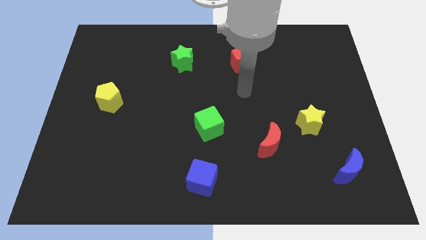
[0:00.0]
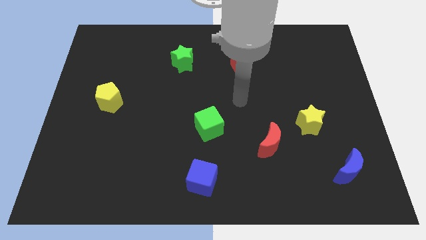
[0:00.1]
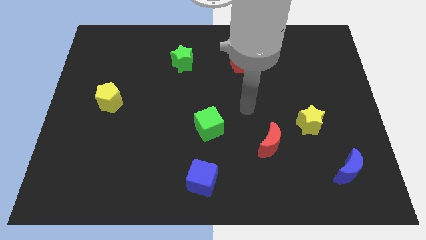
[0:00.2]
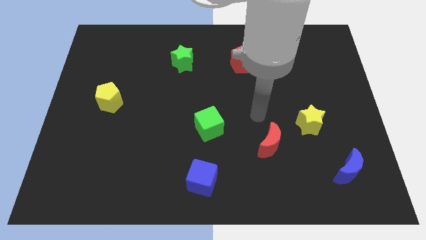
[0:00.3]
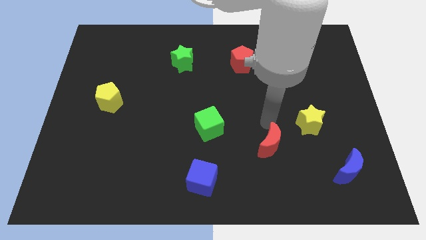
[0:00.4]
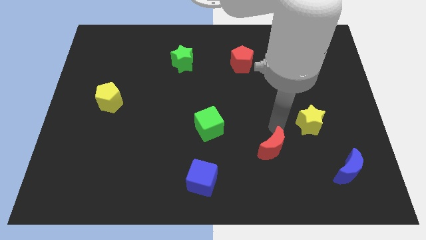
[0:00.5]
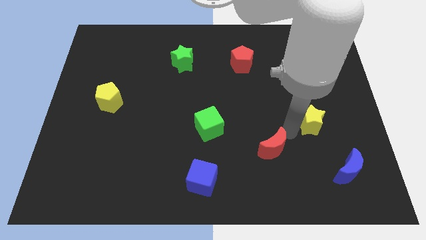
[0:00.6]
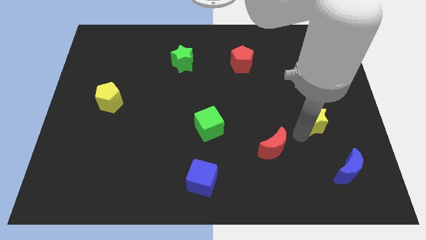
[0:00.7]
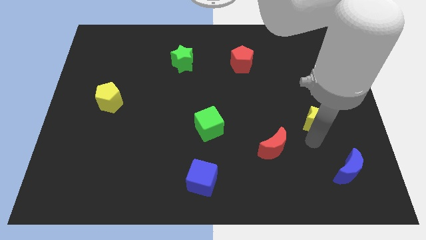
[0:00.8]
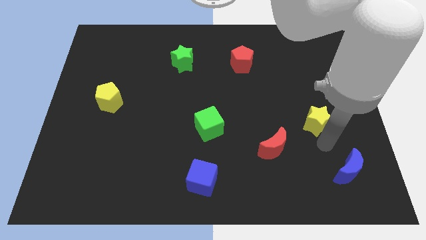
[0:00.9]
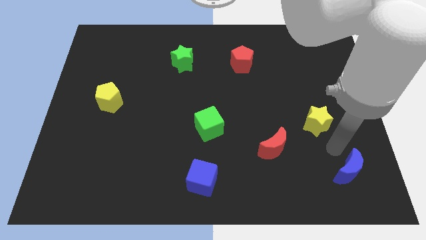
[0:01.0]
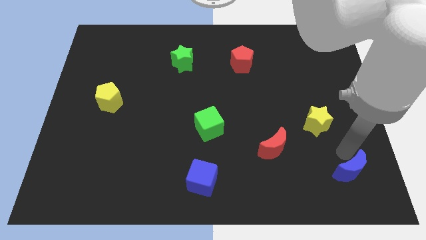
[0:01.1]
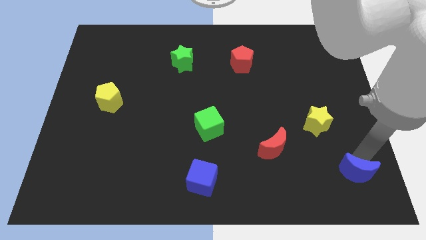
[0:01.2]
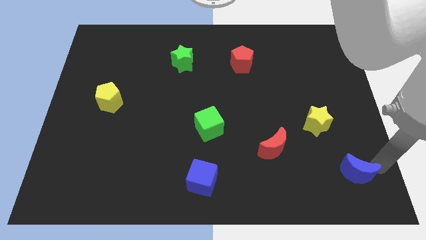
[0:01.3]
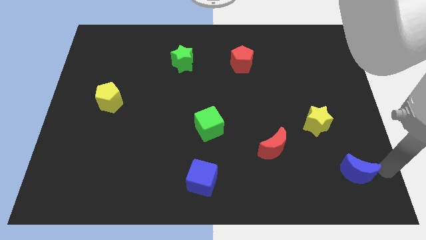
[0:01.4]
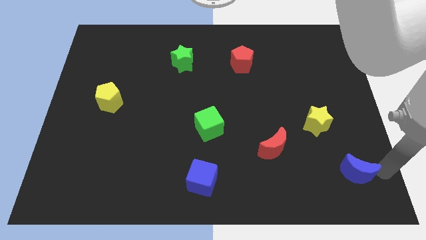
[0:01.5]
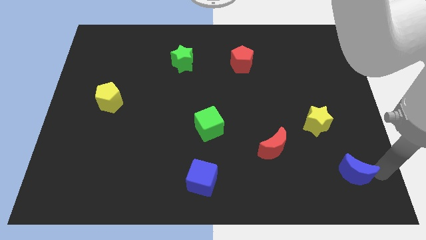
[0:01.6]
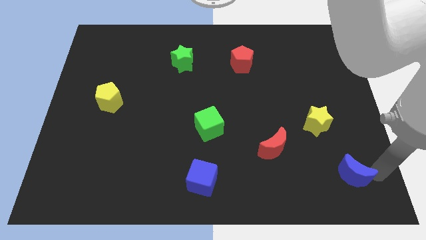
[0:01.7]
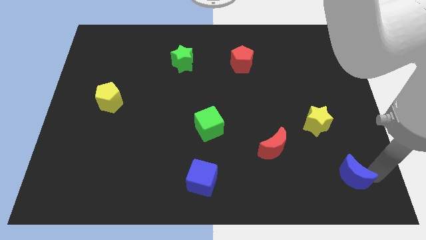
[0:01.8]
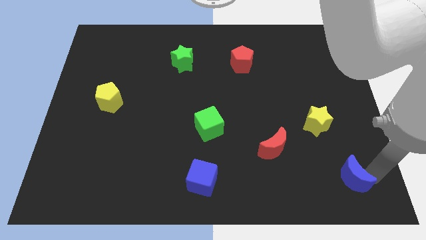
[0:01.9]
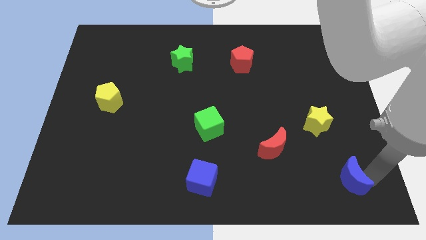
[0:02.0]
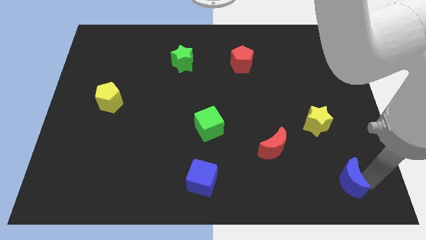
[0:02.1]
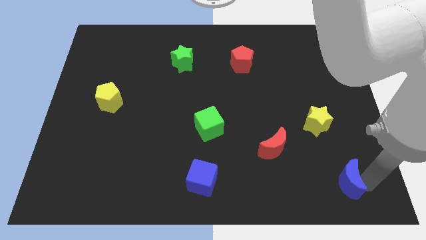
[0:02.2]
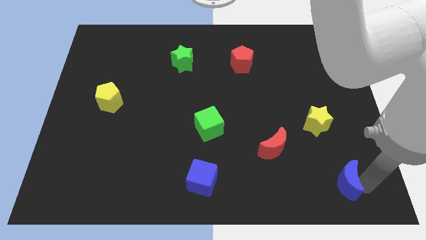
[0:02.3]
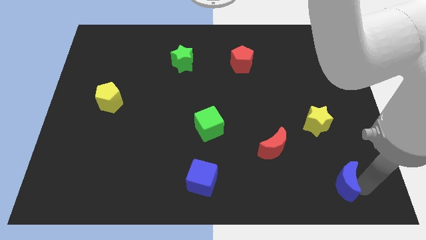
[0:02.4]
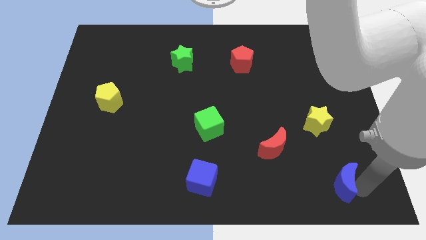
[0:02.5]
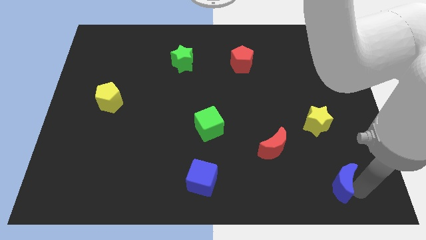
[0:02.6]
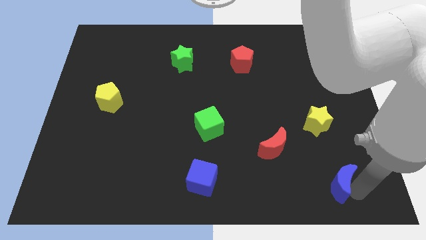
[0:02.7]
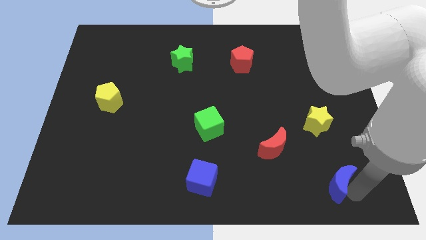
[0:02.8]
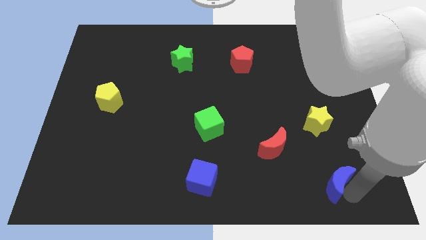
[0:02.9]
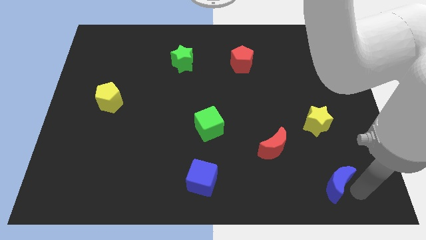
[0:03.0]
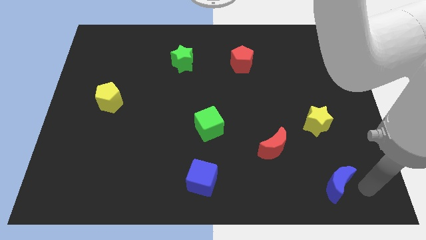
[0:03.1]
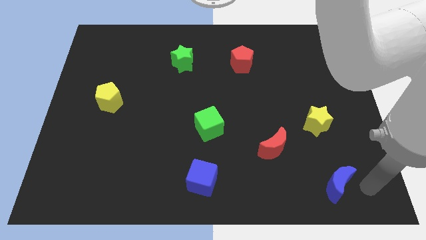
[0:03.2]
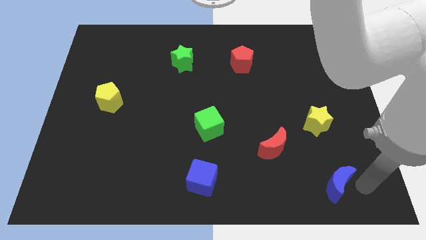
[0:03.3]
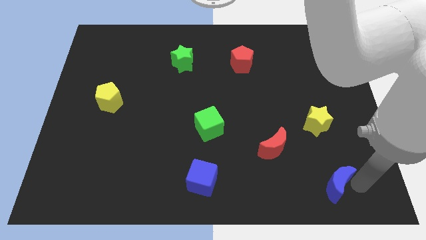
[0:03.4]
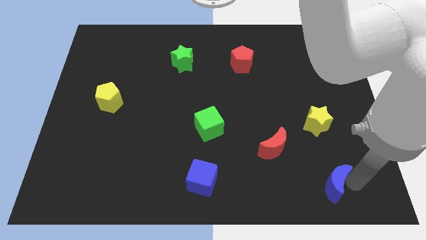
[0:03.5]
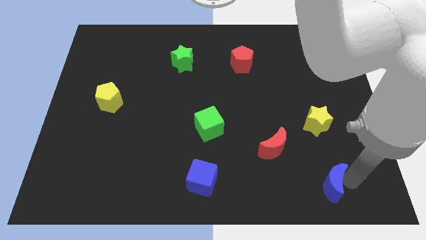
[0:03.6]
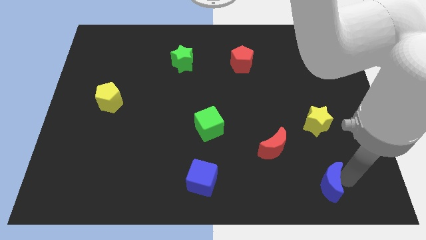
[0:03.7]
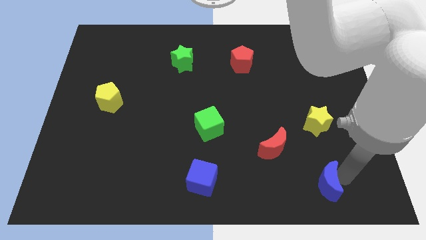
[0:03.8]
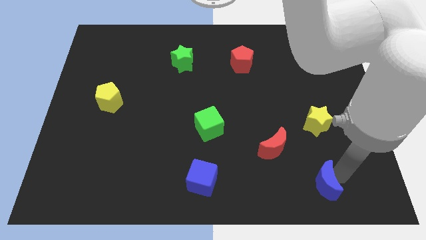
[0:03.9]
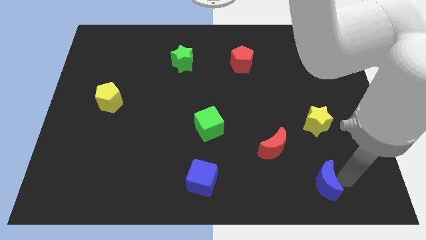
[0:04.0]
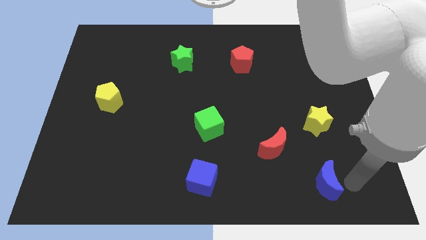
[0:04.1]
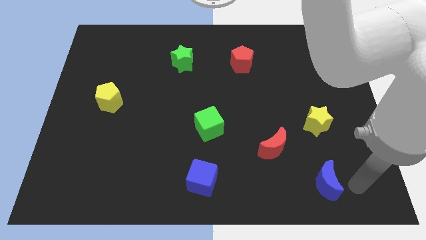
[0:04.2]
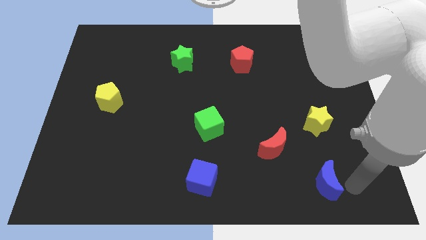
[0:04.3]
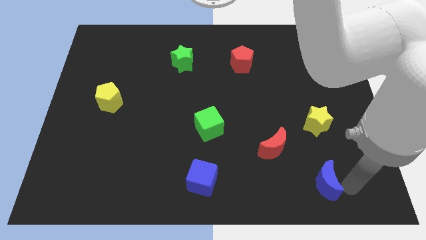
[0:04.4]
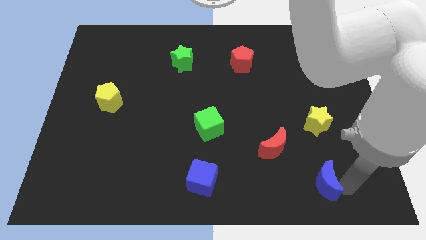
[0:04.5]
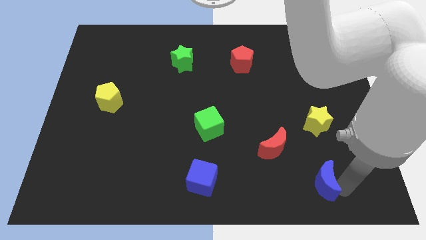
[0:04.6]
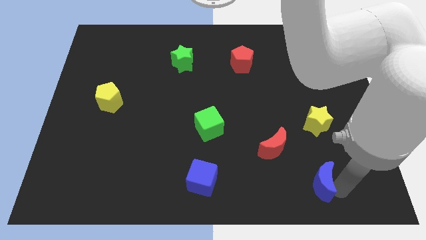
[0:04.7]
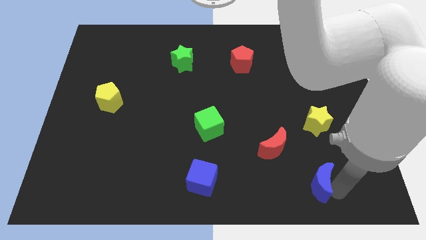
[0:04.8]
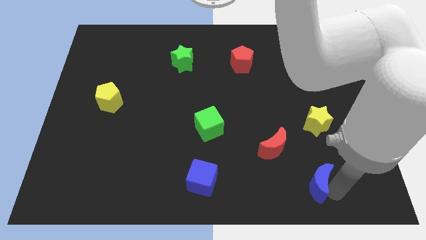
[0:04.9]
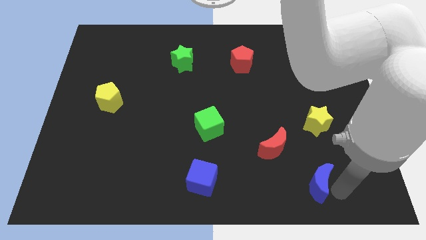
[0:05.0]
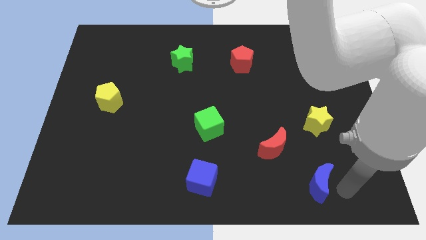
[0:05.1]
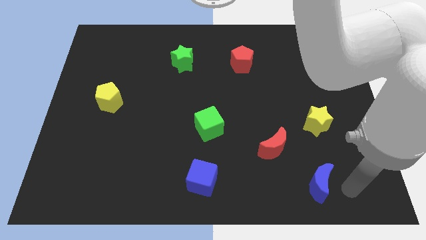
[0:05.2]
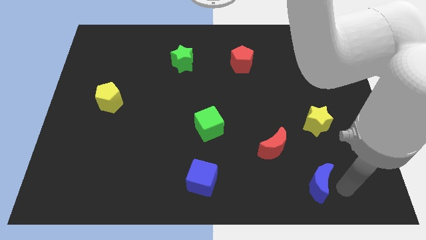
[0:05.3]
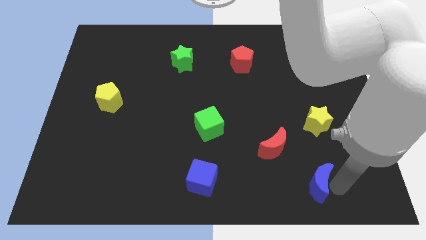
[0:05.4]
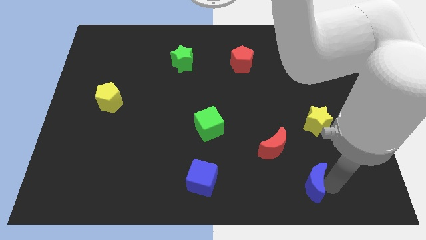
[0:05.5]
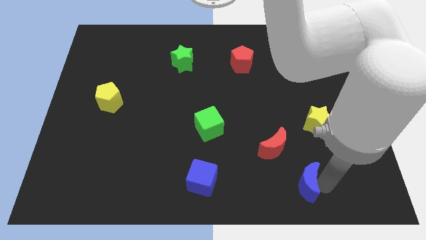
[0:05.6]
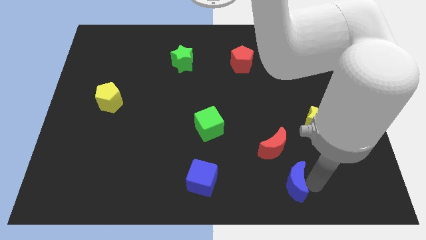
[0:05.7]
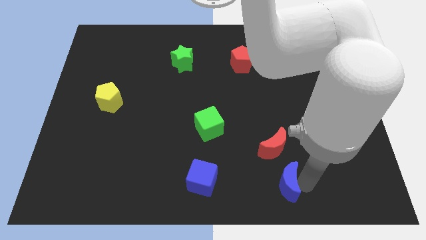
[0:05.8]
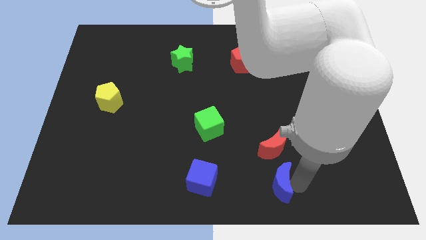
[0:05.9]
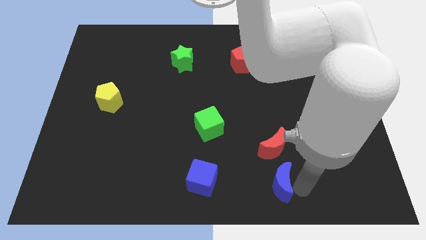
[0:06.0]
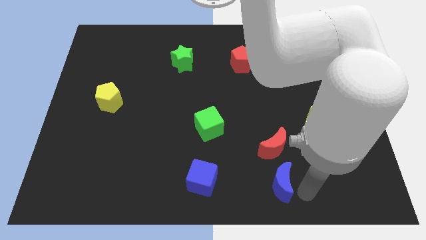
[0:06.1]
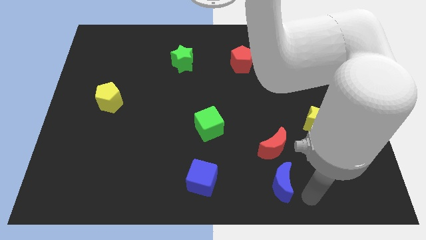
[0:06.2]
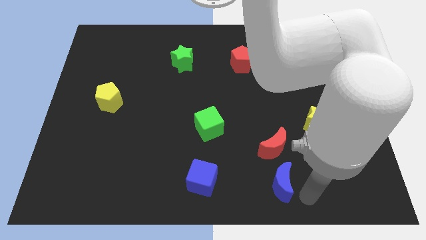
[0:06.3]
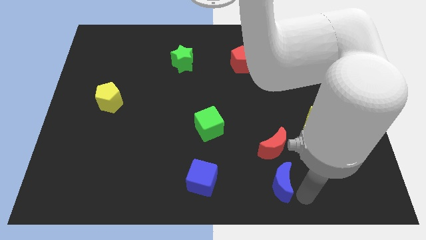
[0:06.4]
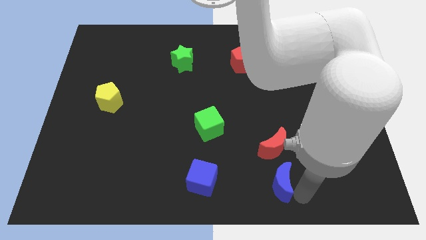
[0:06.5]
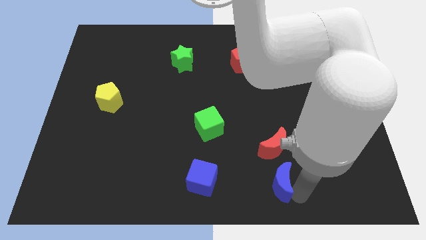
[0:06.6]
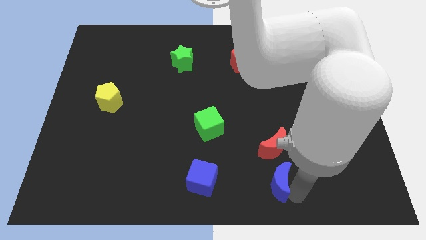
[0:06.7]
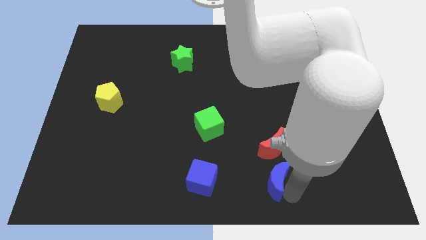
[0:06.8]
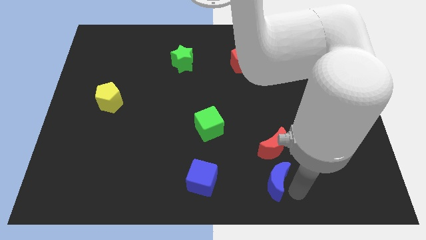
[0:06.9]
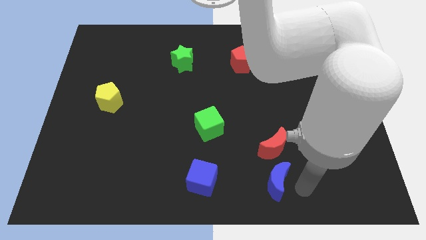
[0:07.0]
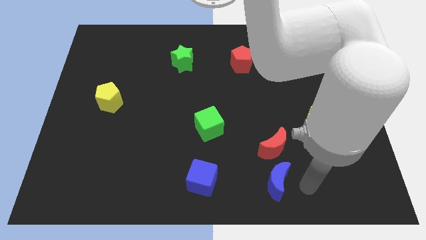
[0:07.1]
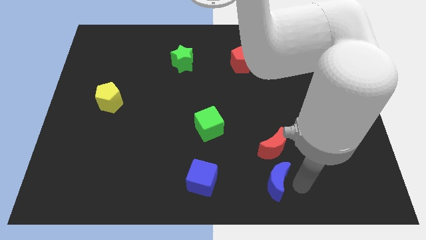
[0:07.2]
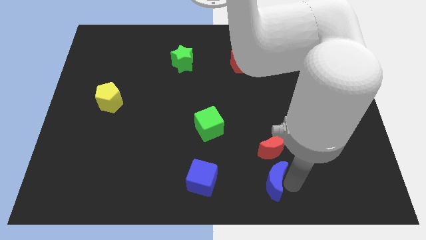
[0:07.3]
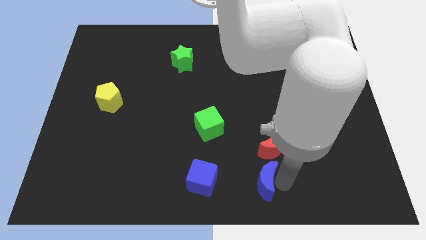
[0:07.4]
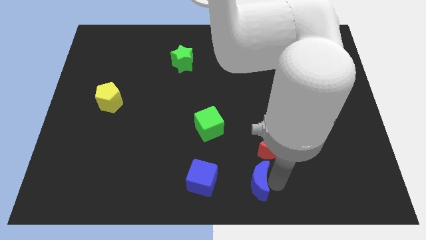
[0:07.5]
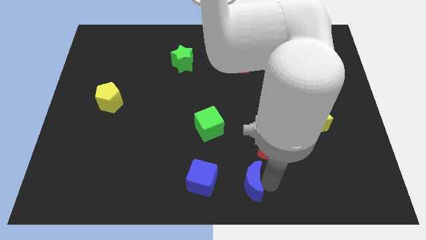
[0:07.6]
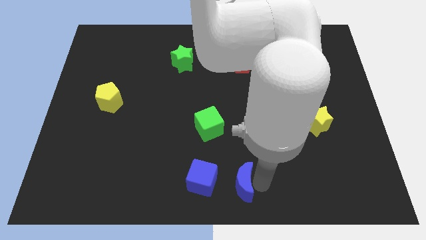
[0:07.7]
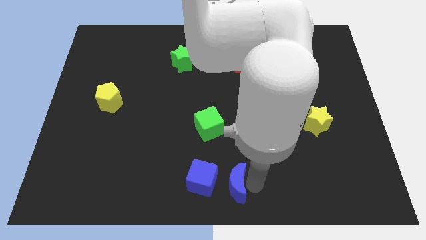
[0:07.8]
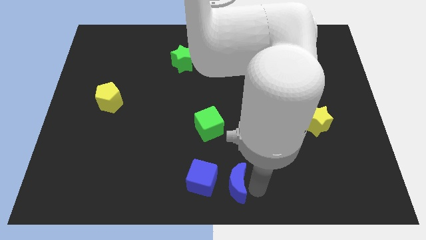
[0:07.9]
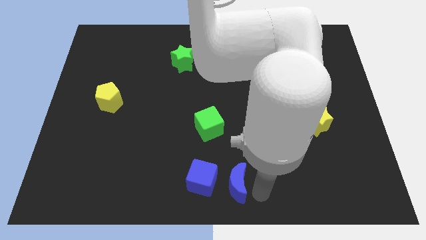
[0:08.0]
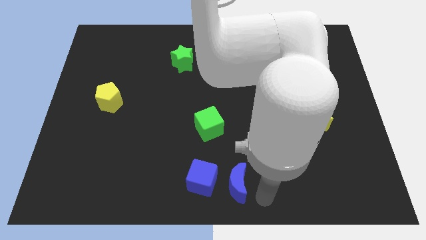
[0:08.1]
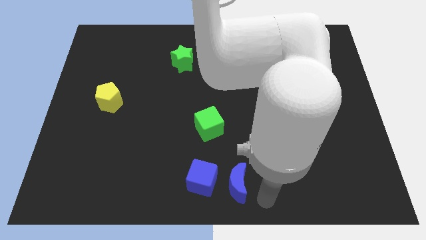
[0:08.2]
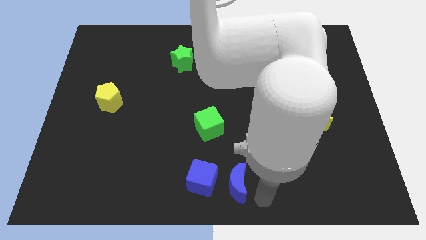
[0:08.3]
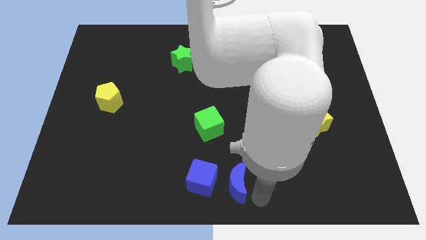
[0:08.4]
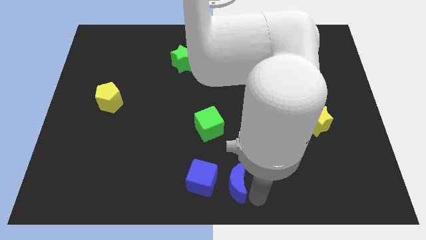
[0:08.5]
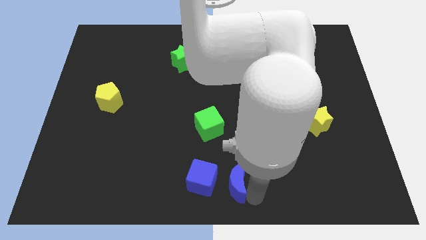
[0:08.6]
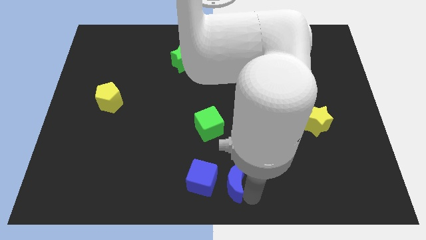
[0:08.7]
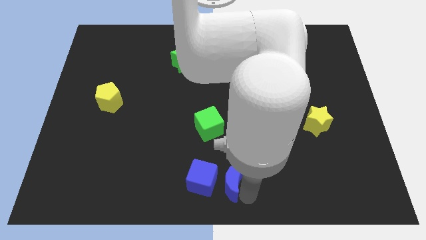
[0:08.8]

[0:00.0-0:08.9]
put the blue moon to the blue cube
